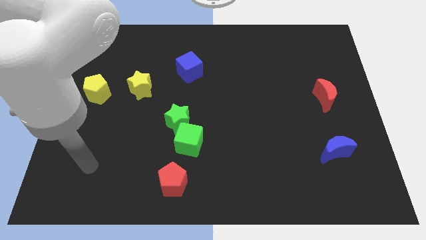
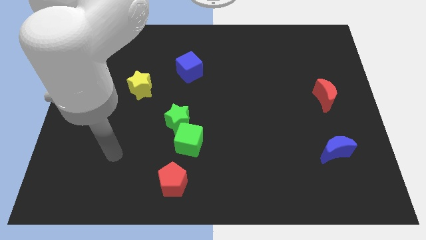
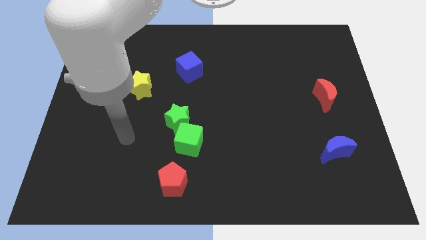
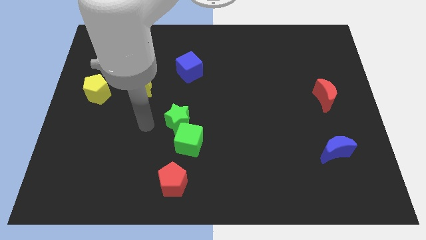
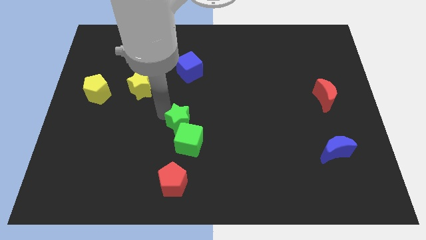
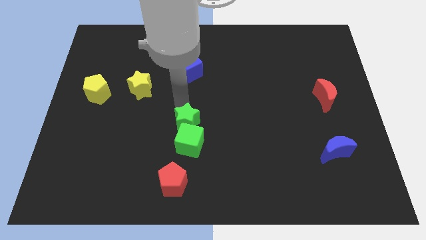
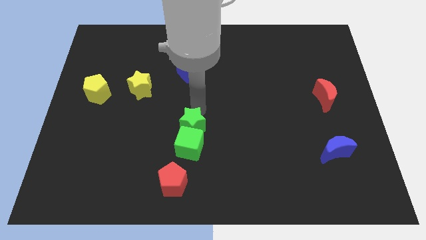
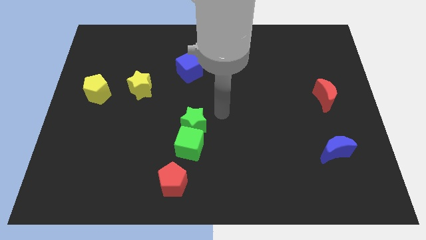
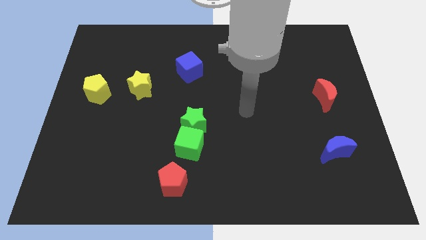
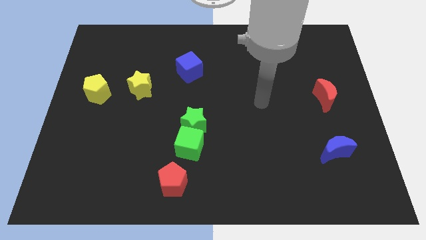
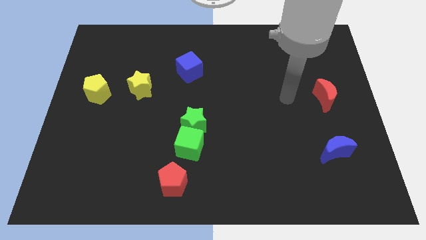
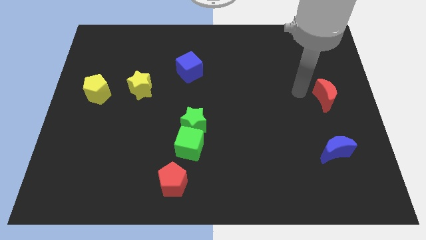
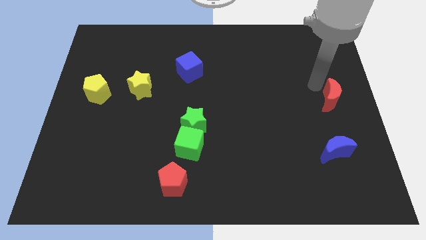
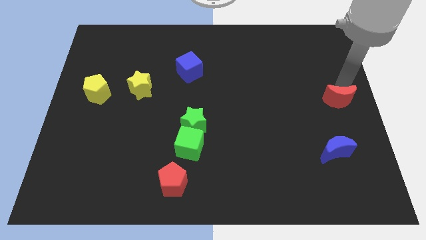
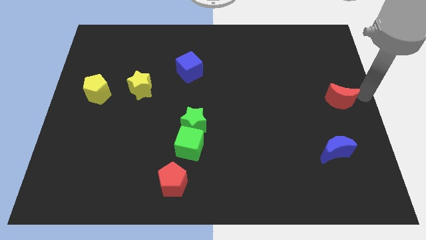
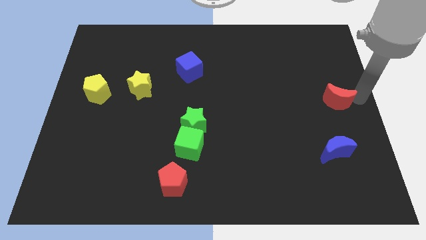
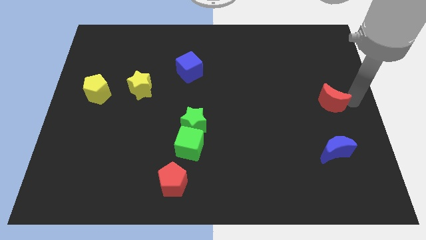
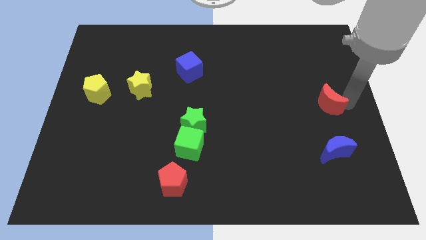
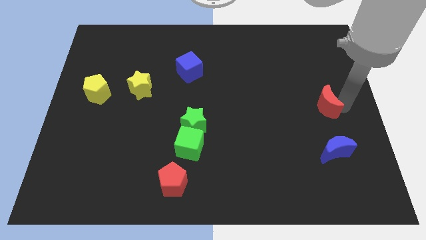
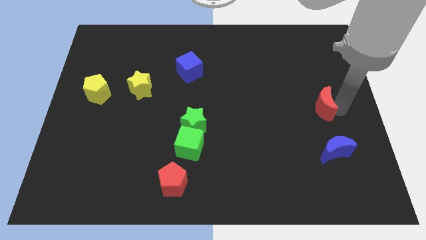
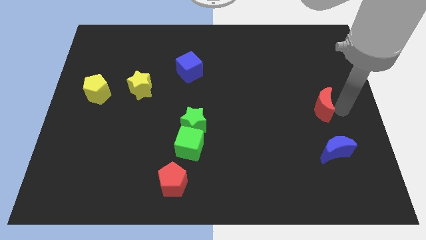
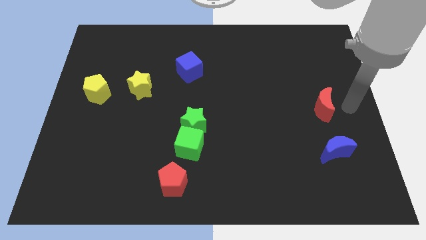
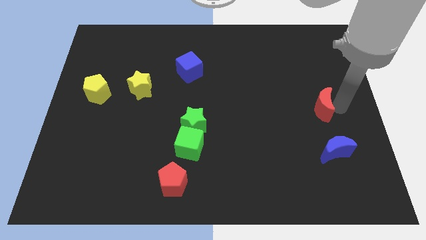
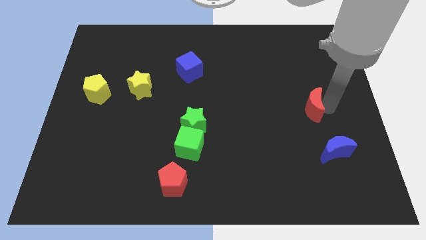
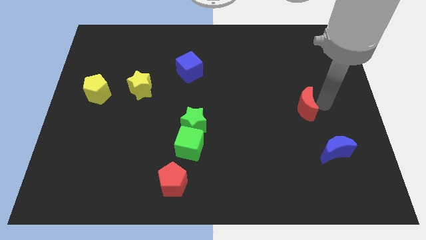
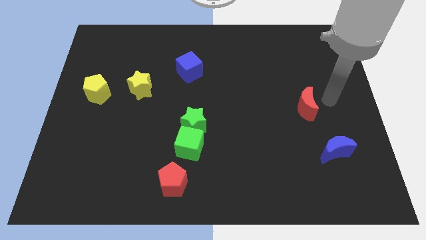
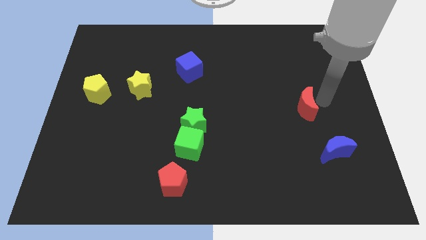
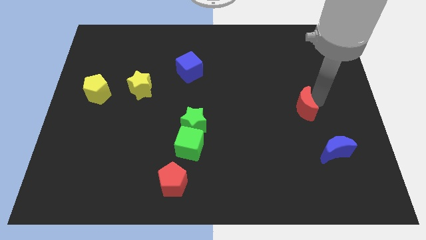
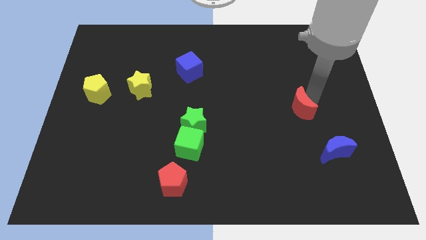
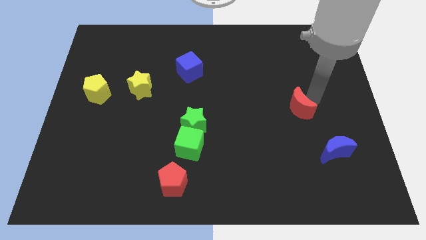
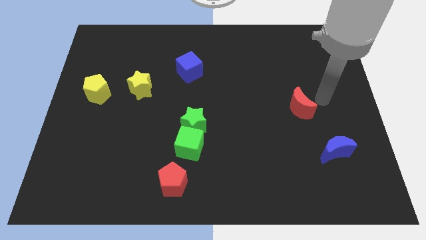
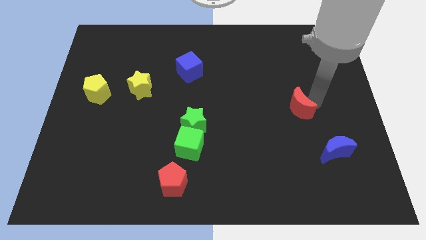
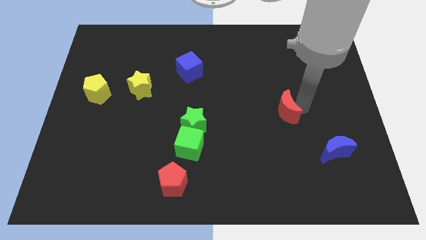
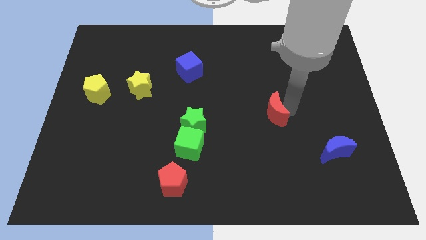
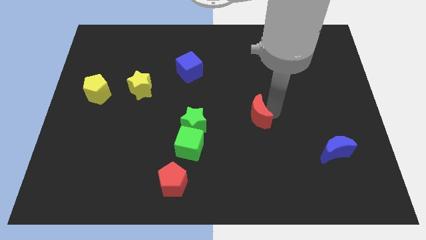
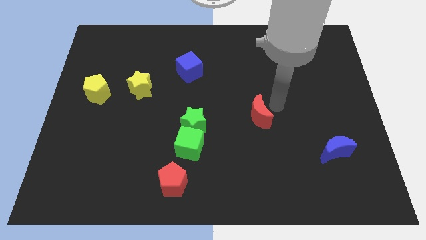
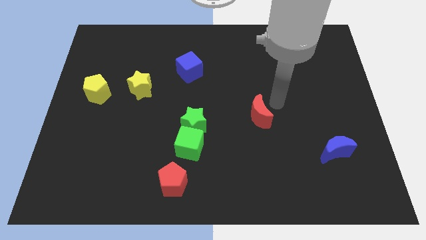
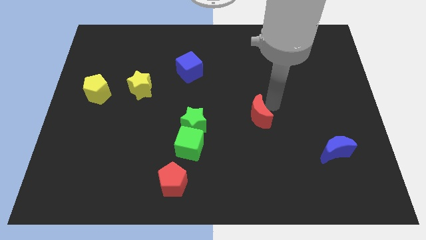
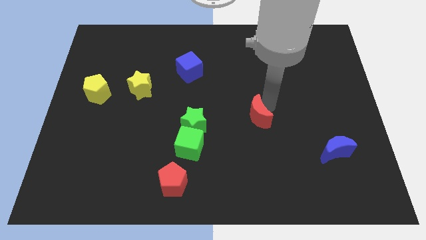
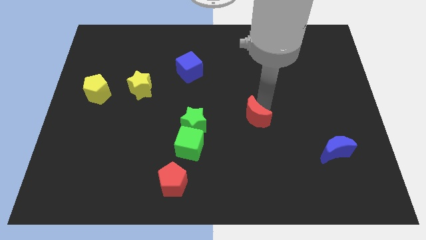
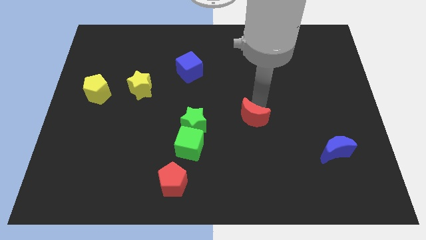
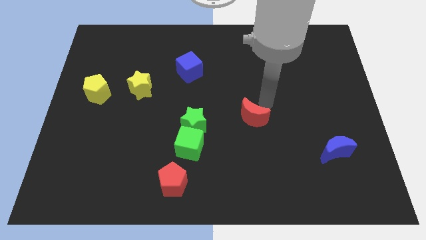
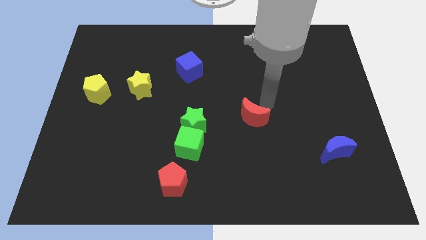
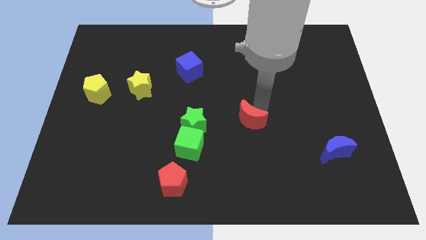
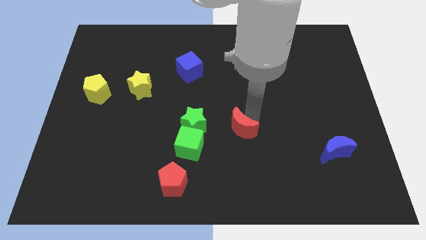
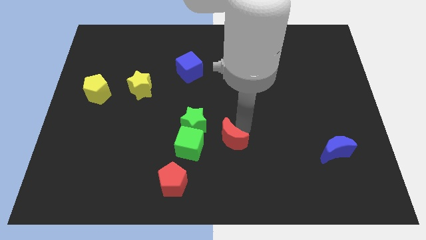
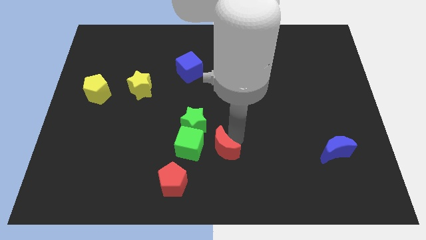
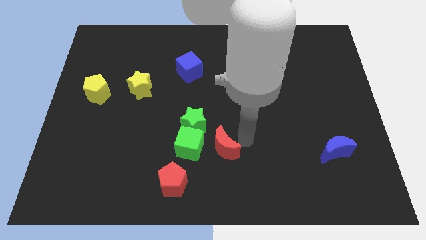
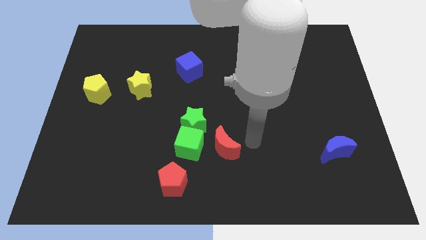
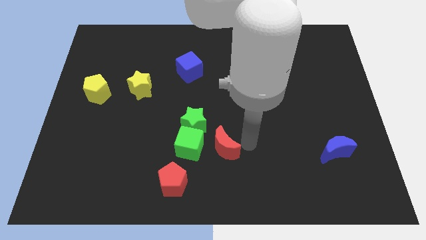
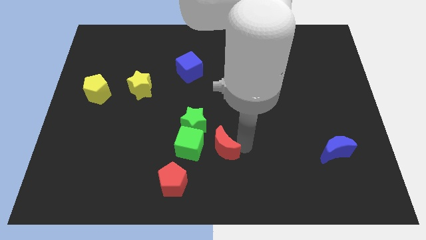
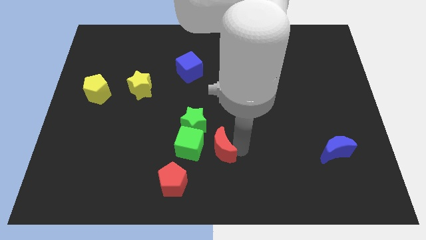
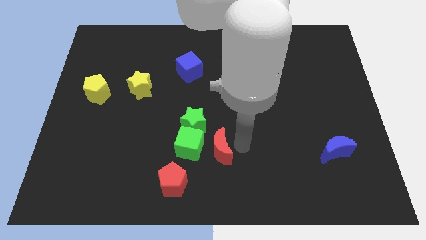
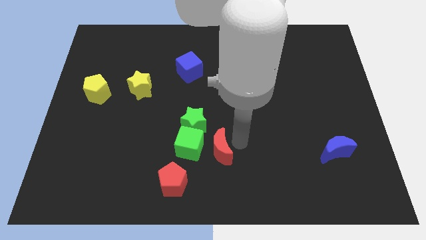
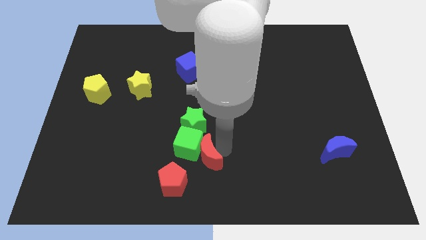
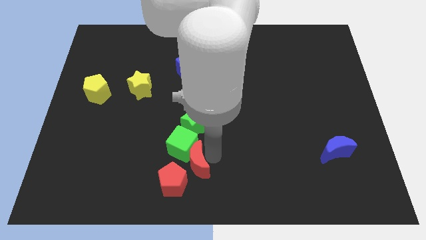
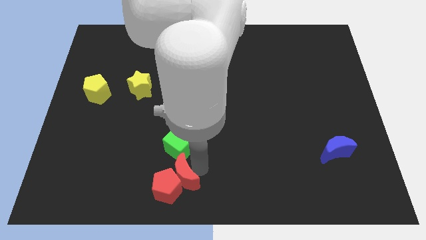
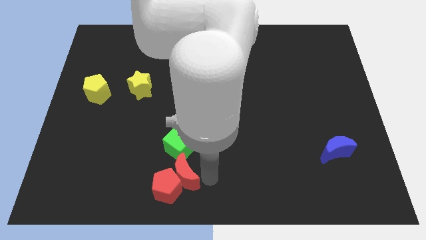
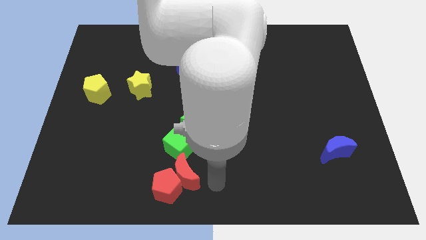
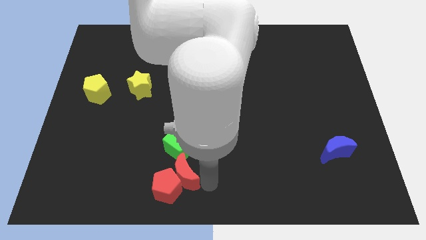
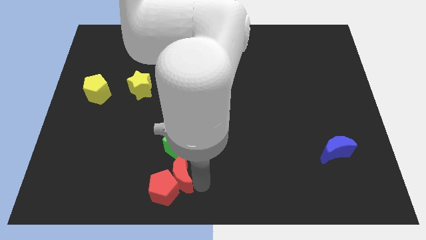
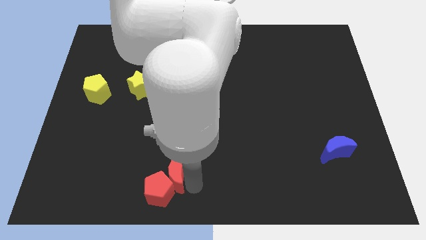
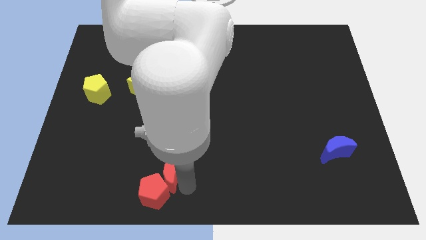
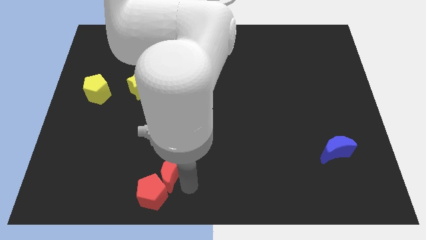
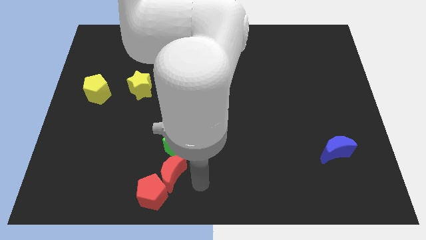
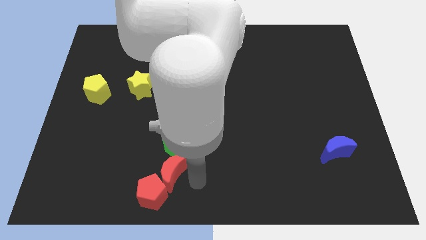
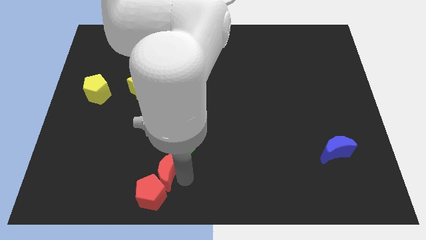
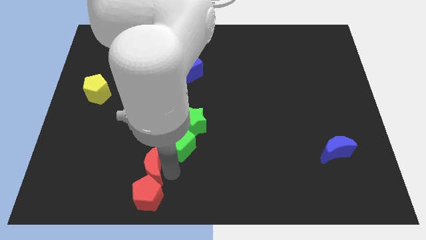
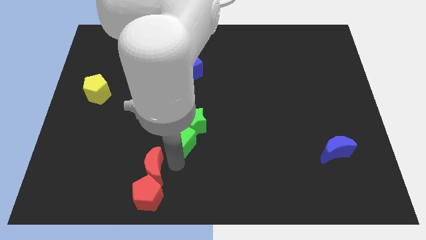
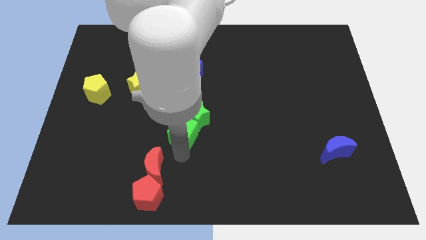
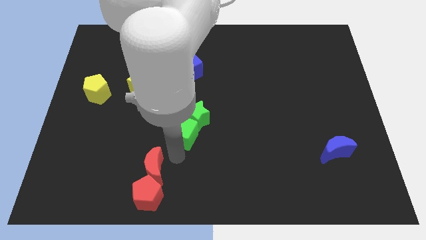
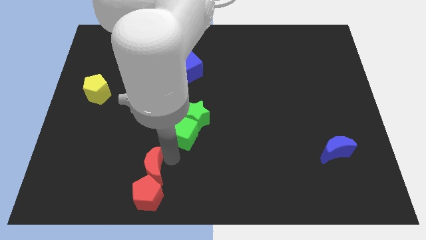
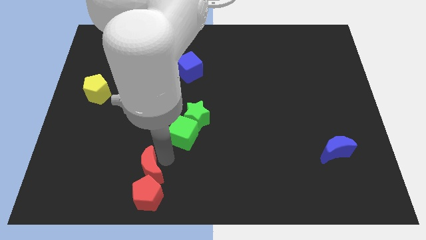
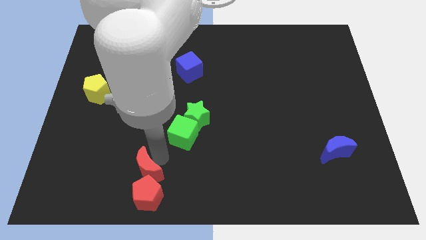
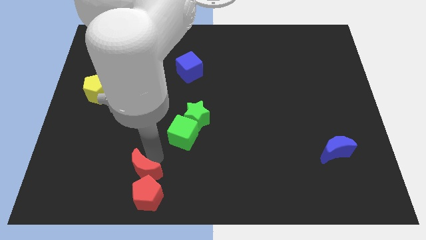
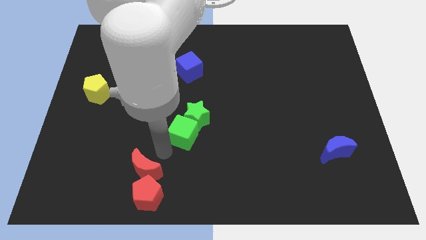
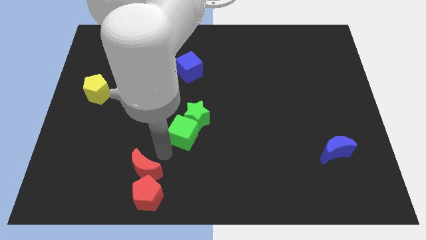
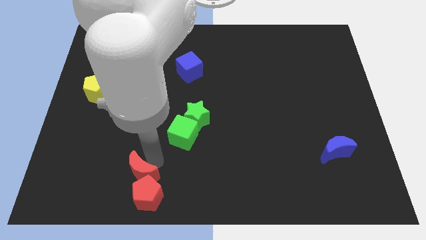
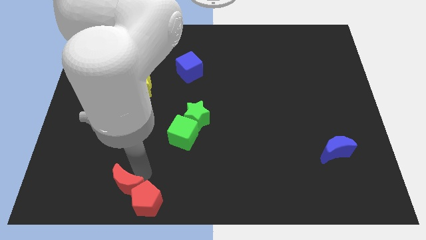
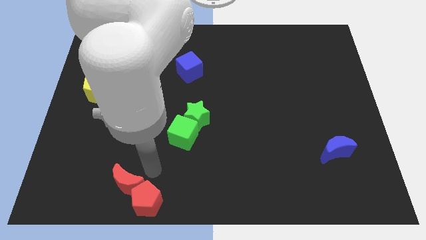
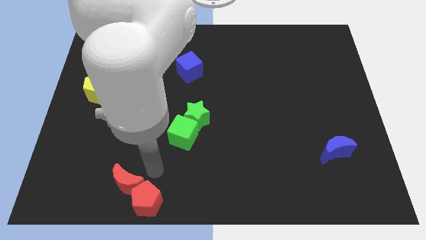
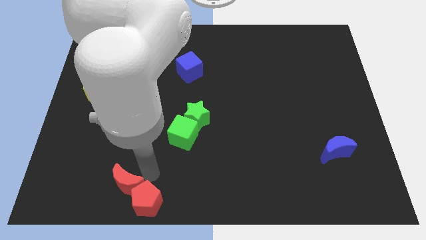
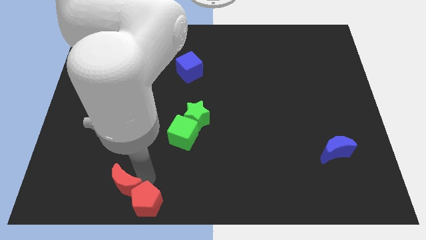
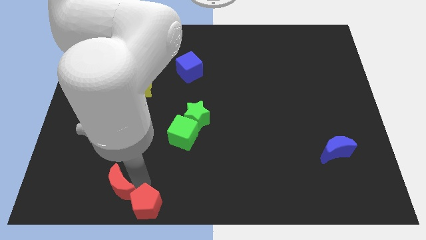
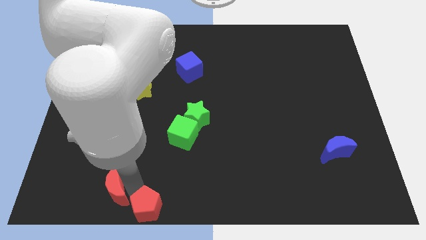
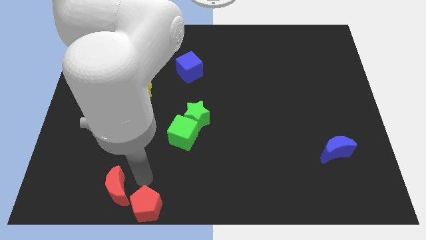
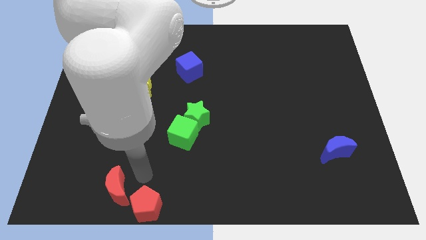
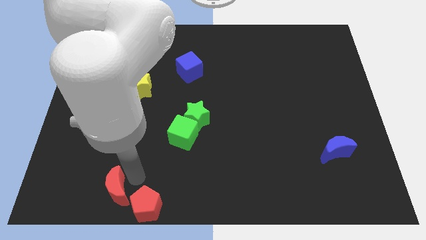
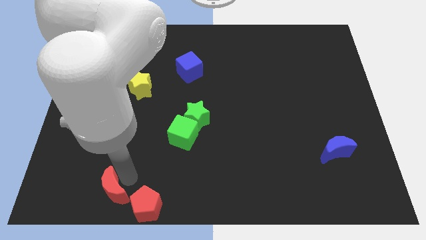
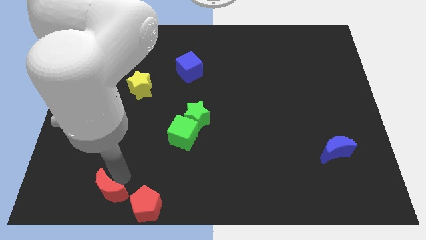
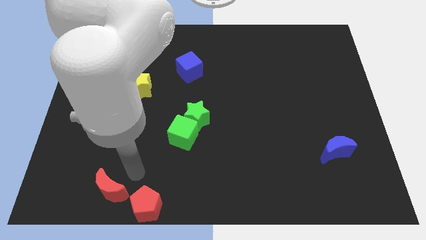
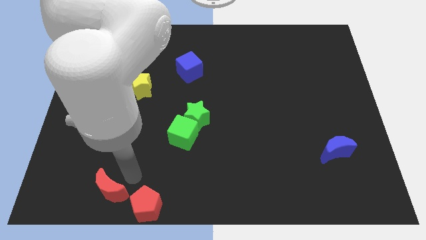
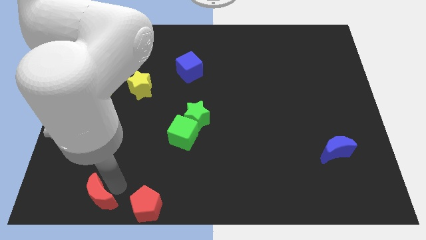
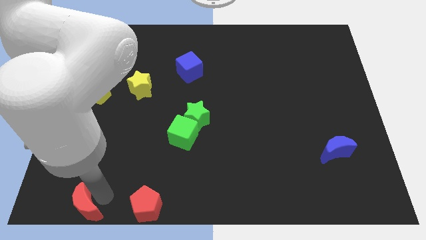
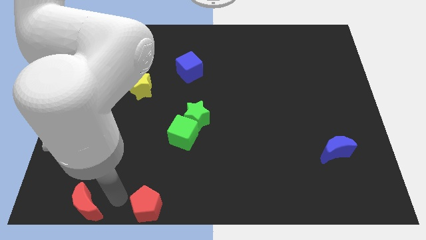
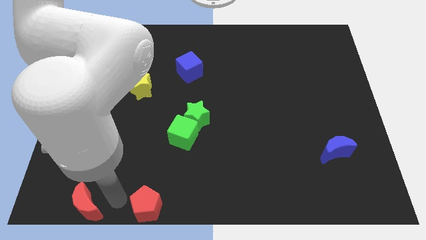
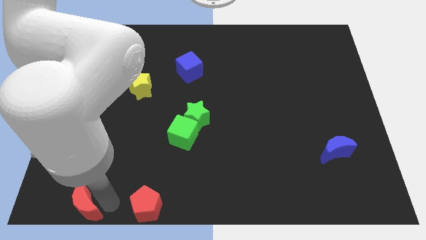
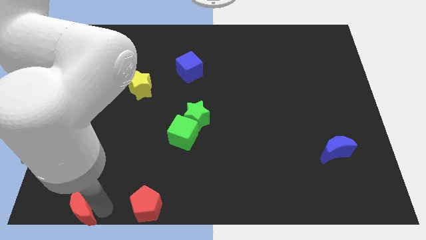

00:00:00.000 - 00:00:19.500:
push the red moon to the bottom left corner
